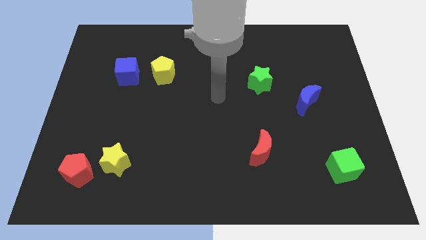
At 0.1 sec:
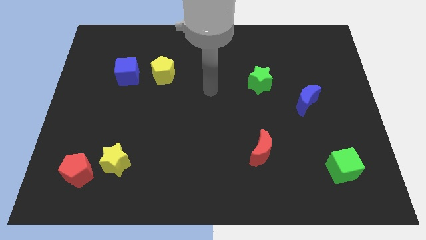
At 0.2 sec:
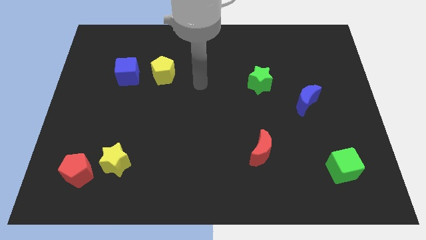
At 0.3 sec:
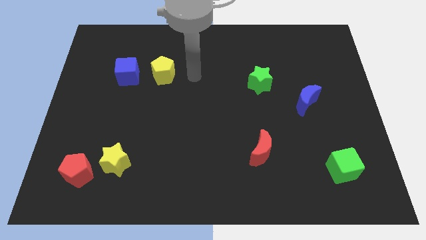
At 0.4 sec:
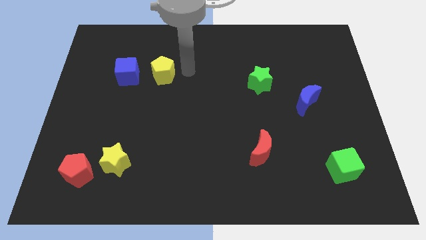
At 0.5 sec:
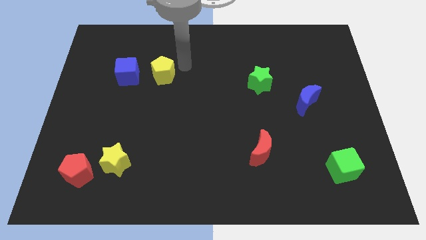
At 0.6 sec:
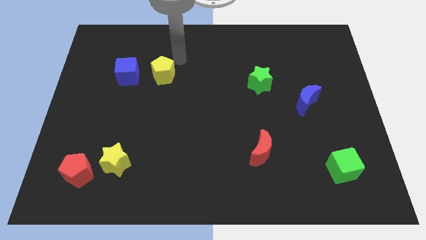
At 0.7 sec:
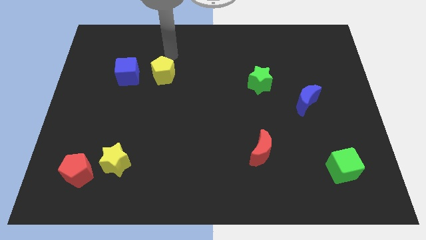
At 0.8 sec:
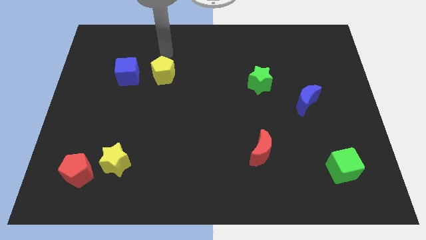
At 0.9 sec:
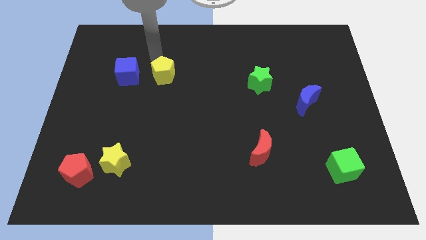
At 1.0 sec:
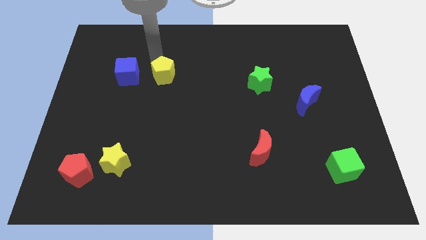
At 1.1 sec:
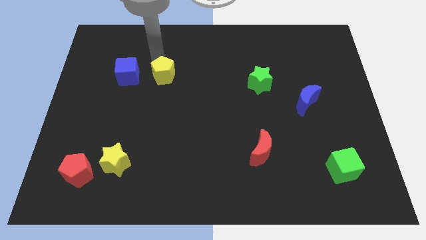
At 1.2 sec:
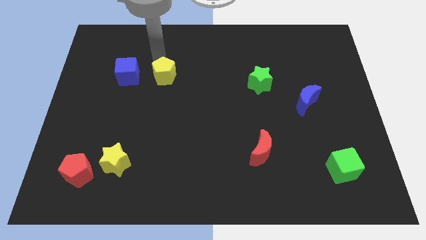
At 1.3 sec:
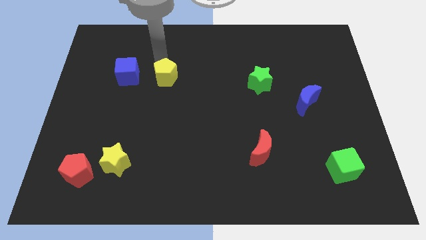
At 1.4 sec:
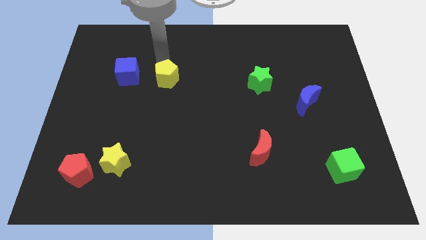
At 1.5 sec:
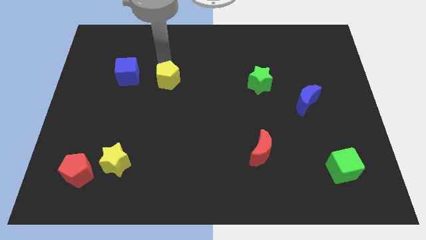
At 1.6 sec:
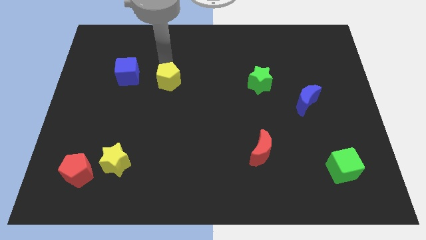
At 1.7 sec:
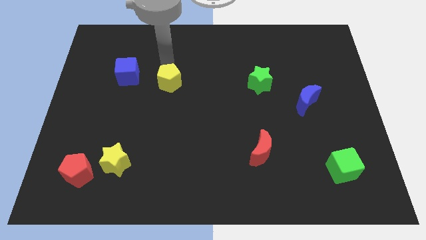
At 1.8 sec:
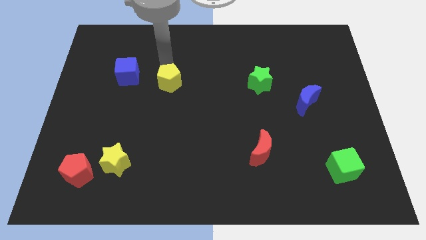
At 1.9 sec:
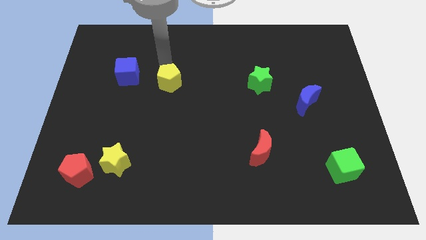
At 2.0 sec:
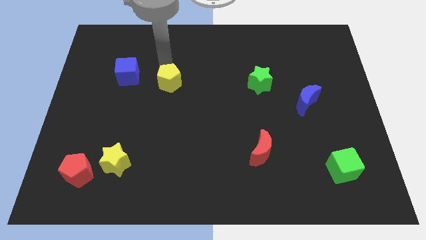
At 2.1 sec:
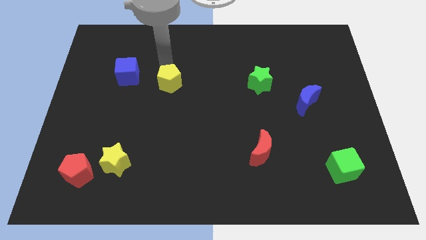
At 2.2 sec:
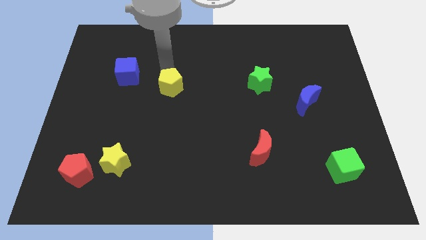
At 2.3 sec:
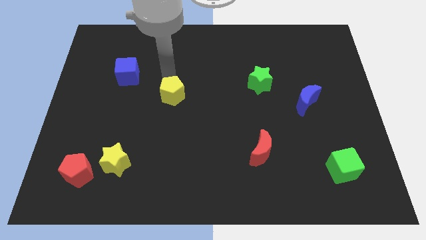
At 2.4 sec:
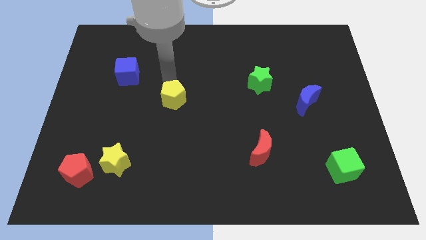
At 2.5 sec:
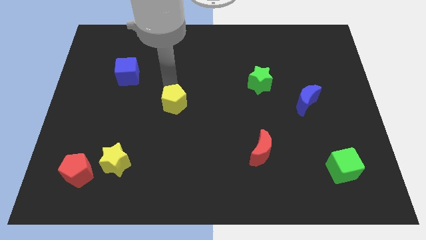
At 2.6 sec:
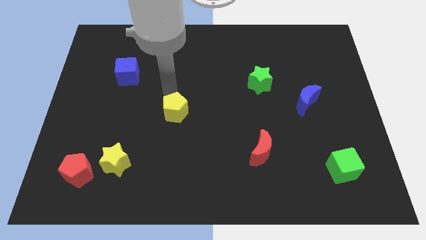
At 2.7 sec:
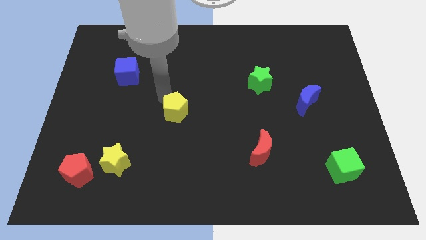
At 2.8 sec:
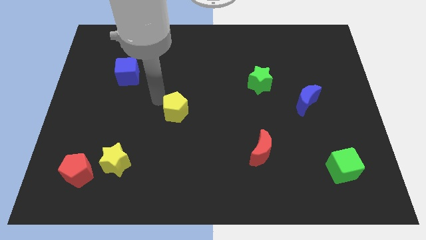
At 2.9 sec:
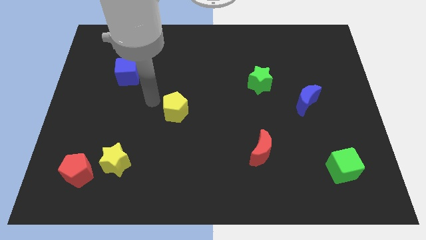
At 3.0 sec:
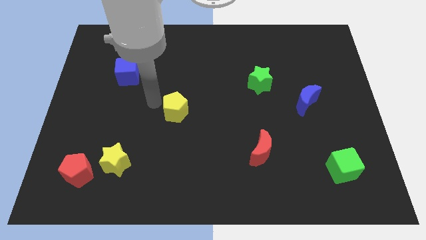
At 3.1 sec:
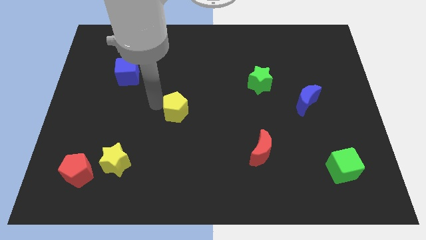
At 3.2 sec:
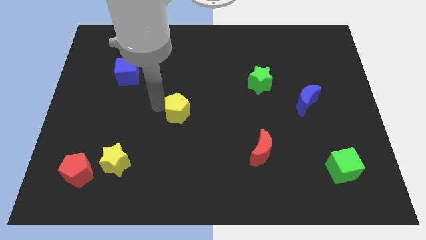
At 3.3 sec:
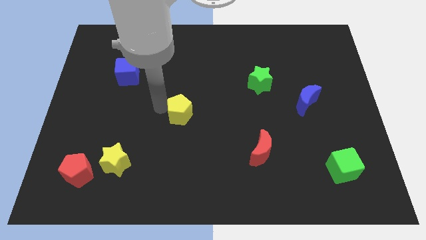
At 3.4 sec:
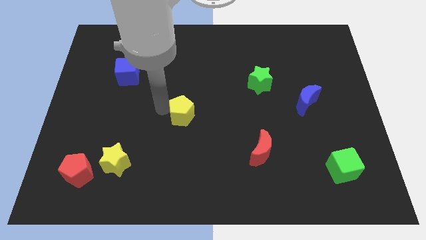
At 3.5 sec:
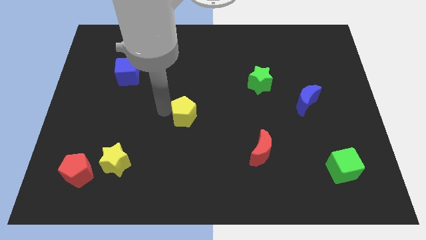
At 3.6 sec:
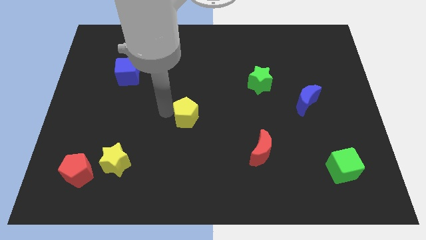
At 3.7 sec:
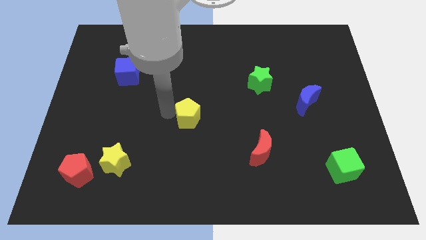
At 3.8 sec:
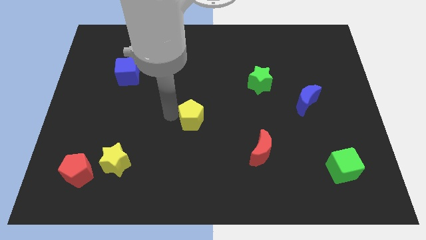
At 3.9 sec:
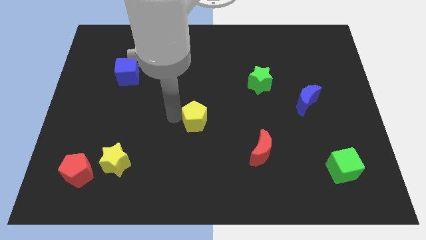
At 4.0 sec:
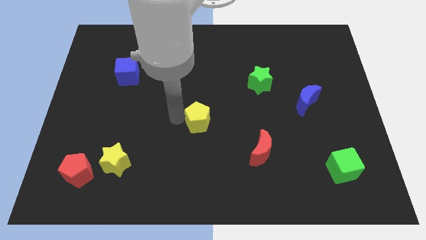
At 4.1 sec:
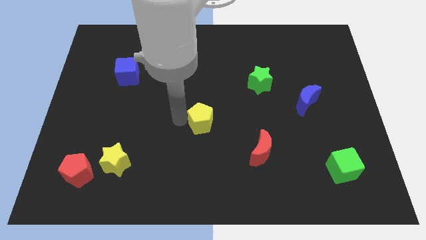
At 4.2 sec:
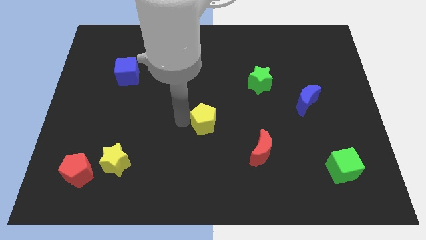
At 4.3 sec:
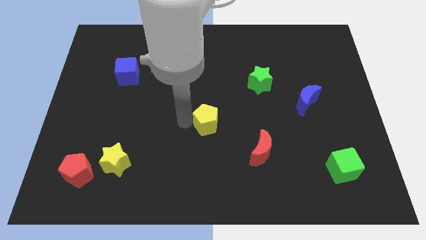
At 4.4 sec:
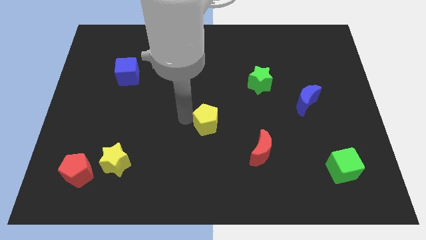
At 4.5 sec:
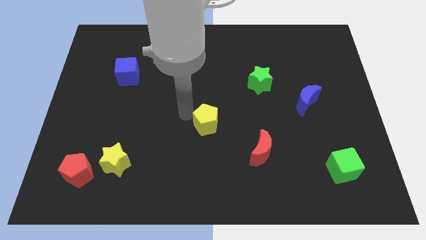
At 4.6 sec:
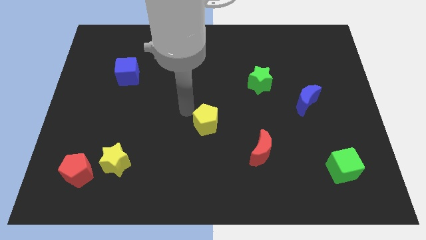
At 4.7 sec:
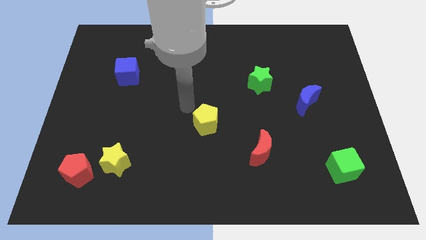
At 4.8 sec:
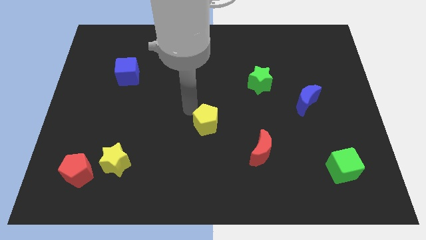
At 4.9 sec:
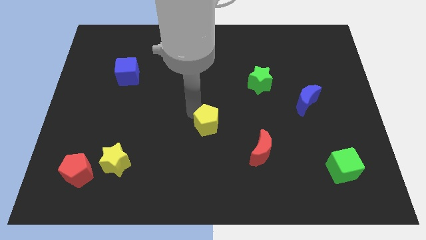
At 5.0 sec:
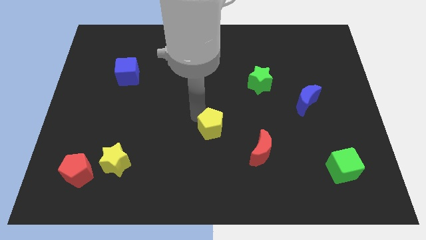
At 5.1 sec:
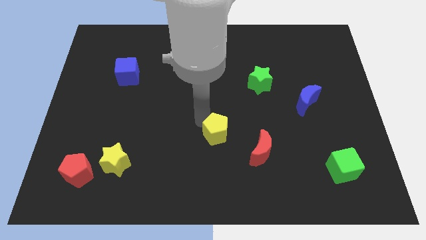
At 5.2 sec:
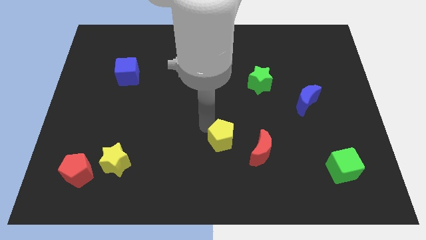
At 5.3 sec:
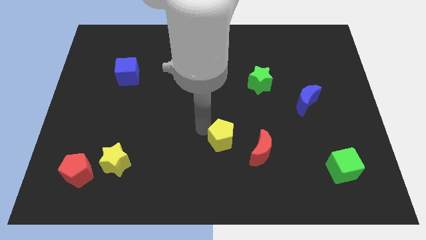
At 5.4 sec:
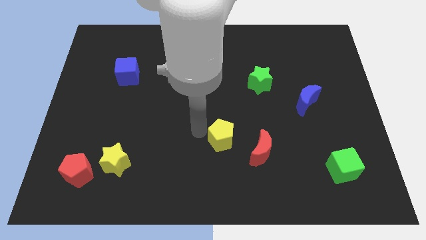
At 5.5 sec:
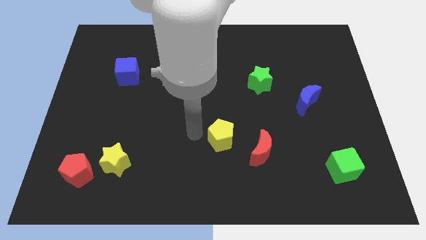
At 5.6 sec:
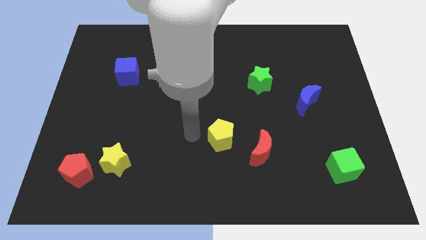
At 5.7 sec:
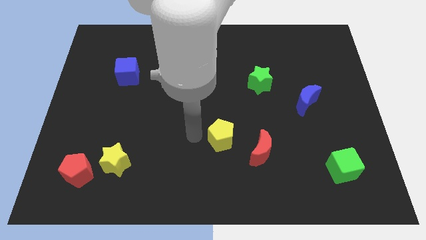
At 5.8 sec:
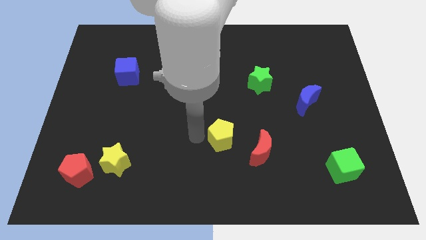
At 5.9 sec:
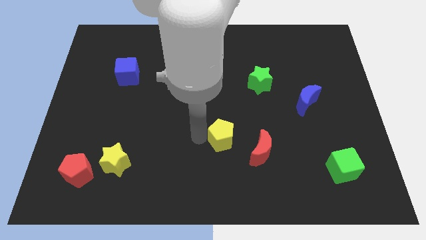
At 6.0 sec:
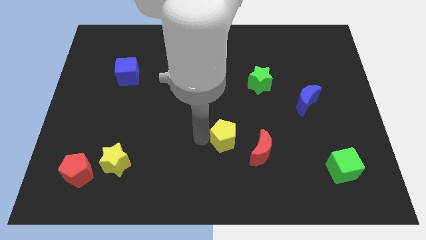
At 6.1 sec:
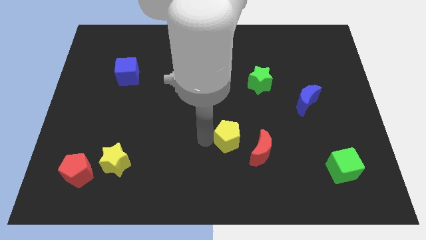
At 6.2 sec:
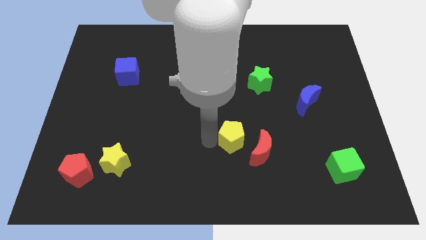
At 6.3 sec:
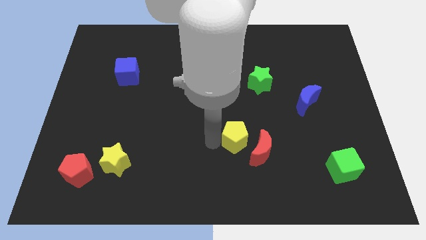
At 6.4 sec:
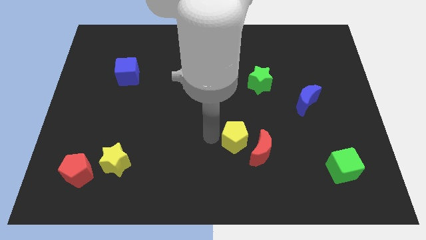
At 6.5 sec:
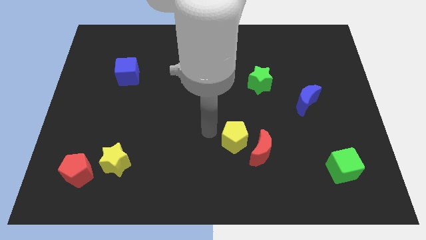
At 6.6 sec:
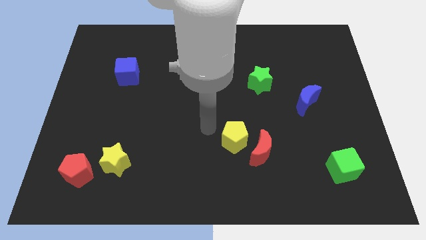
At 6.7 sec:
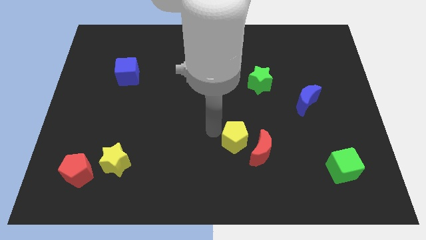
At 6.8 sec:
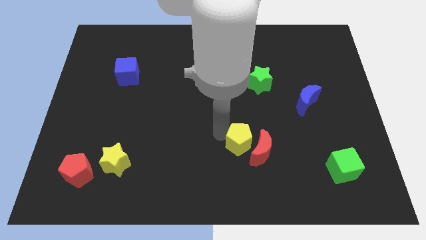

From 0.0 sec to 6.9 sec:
slide the yellow pentagon towards the red moon

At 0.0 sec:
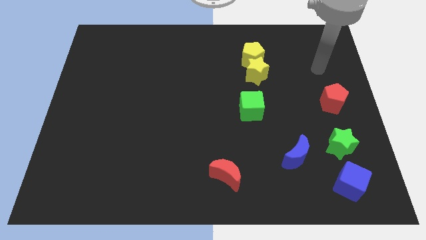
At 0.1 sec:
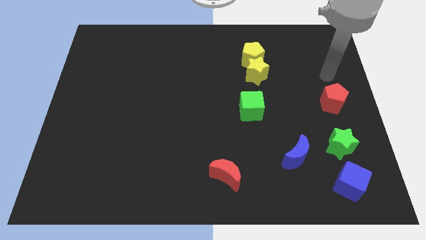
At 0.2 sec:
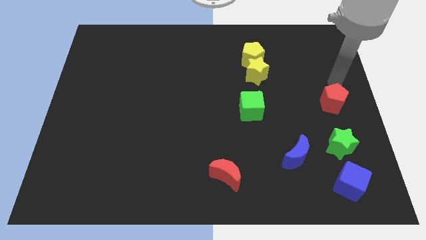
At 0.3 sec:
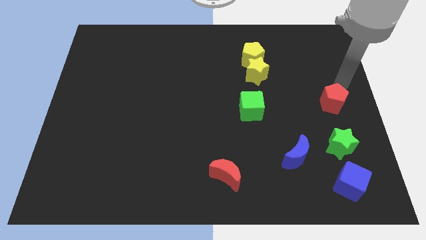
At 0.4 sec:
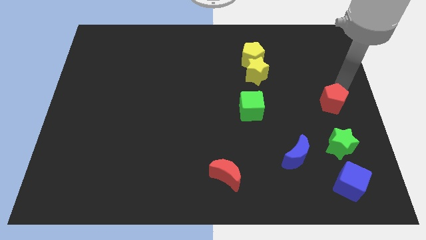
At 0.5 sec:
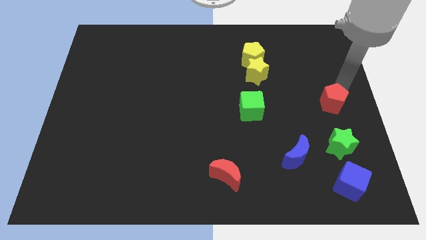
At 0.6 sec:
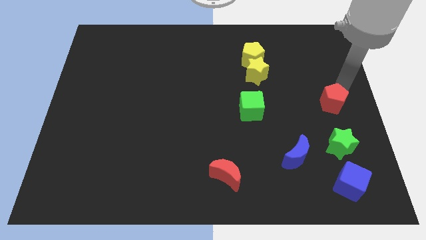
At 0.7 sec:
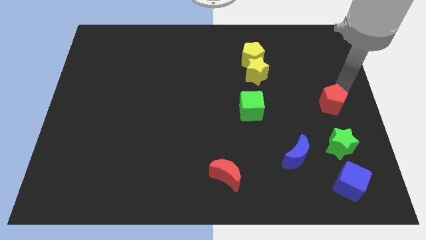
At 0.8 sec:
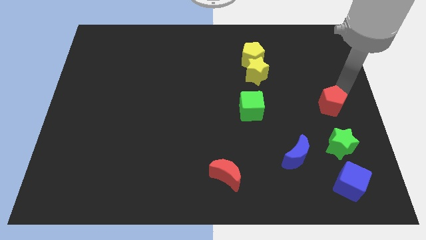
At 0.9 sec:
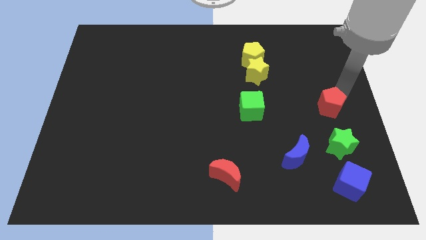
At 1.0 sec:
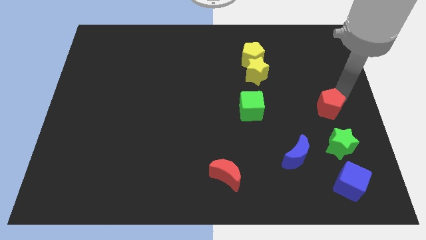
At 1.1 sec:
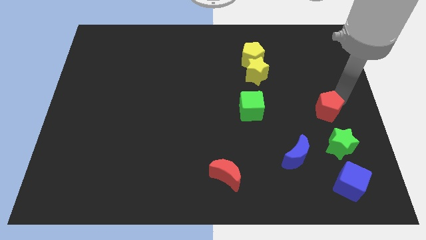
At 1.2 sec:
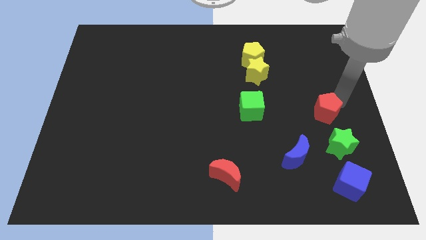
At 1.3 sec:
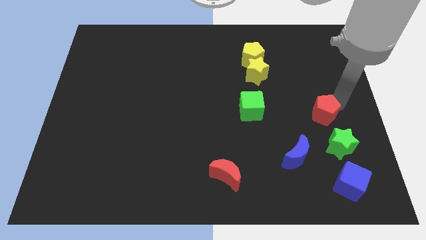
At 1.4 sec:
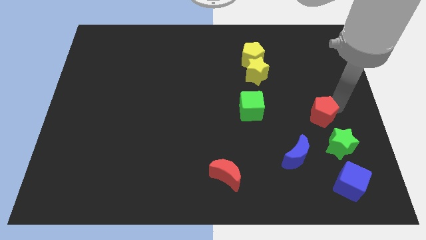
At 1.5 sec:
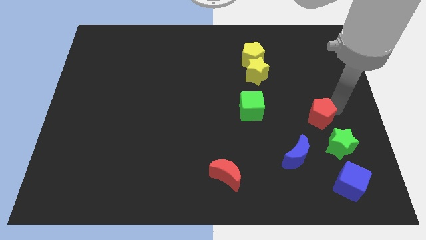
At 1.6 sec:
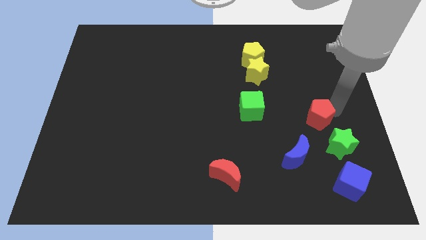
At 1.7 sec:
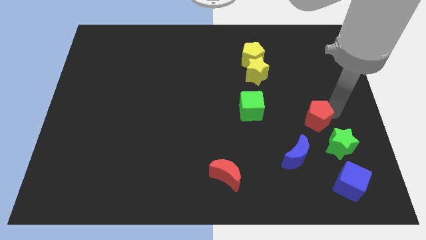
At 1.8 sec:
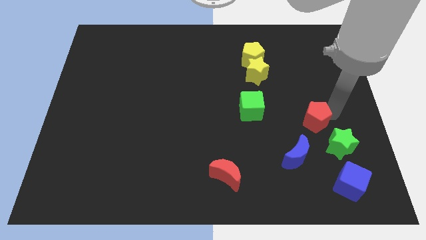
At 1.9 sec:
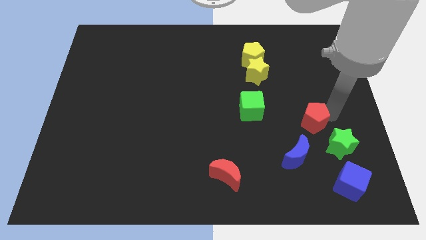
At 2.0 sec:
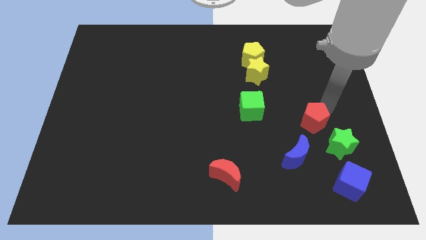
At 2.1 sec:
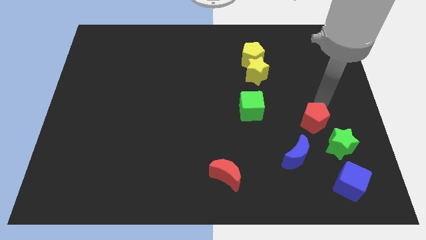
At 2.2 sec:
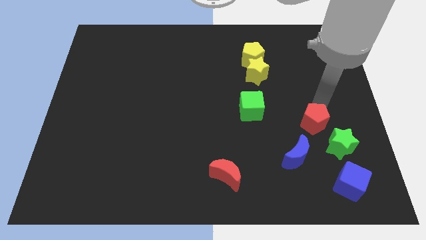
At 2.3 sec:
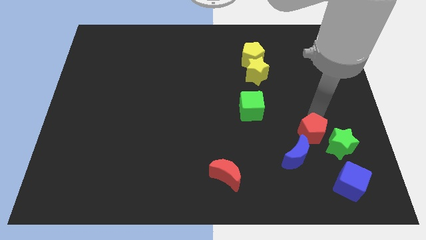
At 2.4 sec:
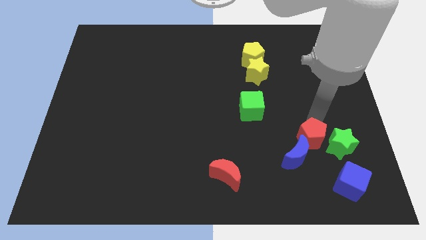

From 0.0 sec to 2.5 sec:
push the red pentagon to the blue moon
